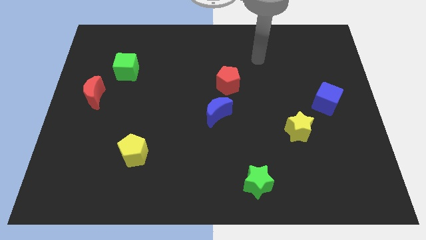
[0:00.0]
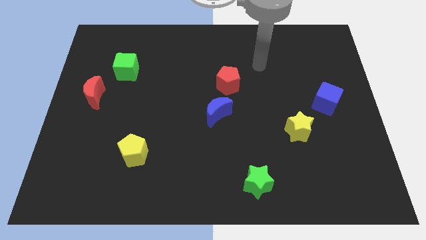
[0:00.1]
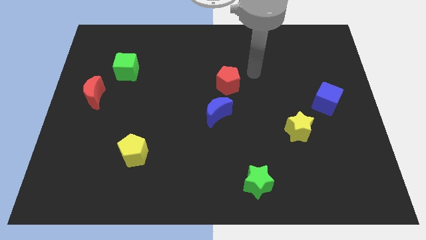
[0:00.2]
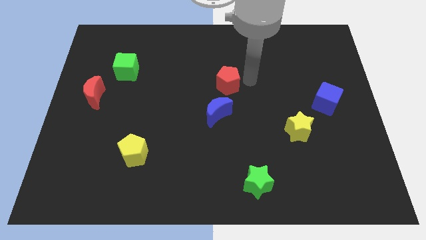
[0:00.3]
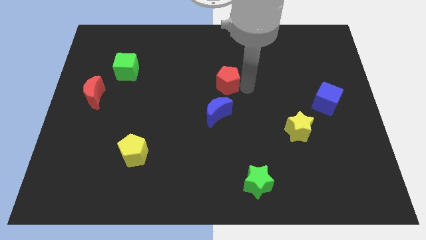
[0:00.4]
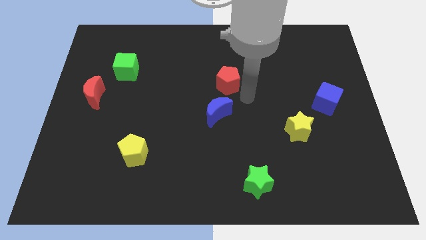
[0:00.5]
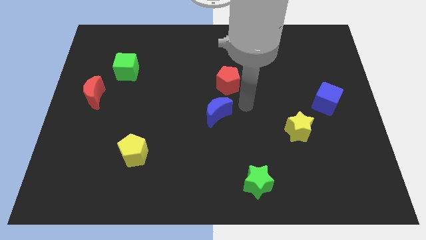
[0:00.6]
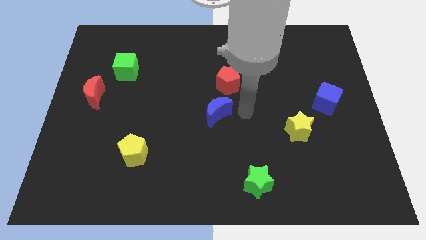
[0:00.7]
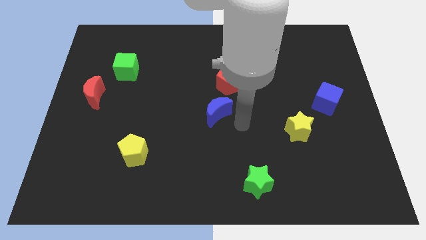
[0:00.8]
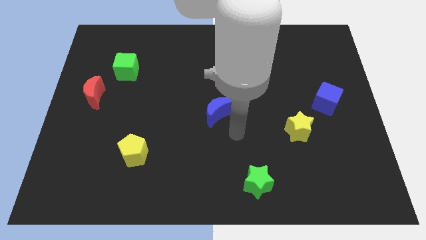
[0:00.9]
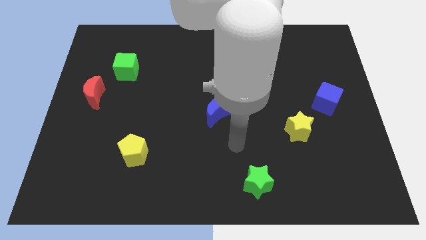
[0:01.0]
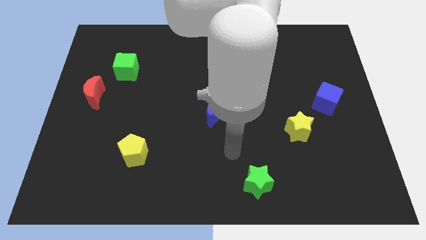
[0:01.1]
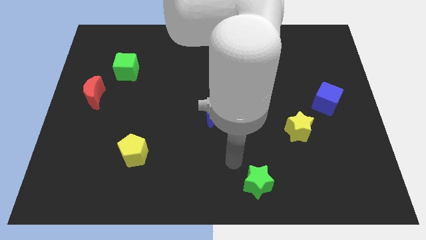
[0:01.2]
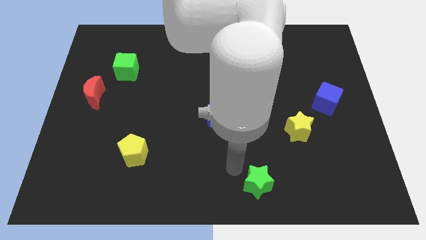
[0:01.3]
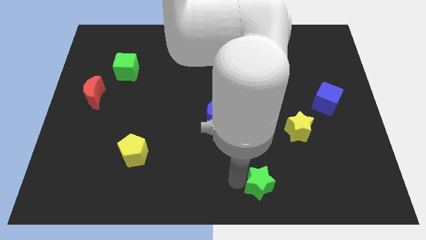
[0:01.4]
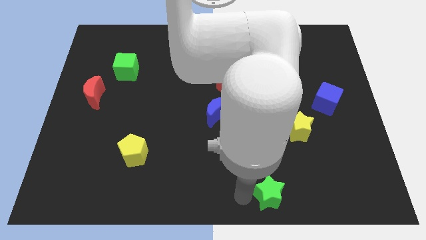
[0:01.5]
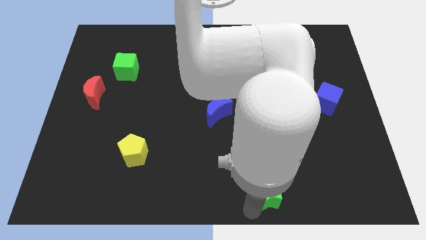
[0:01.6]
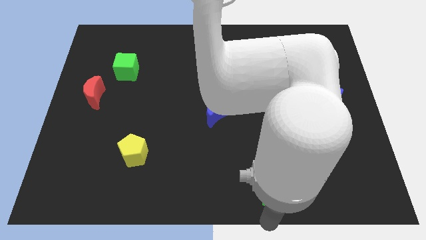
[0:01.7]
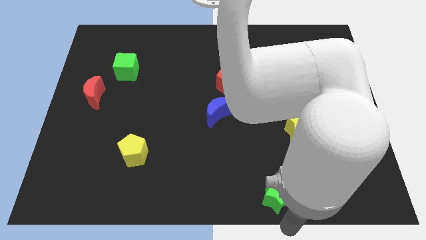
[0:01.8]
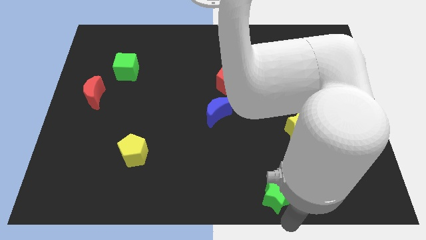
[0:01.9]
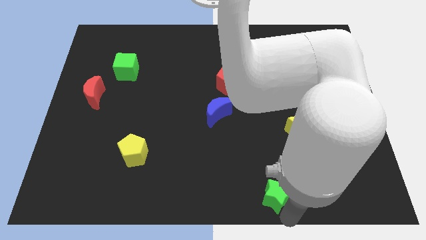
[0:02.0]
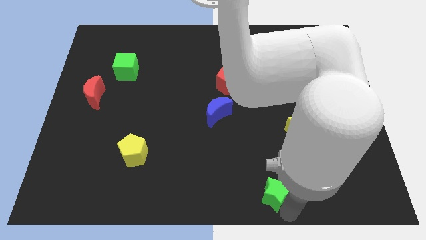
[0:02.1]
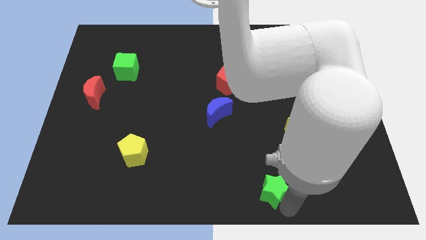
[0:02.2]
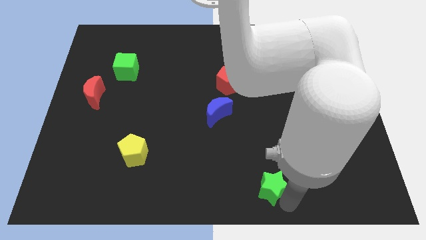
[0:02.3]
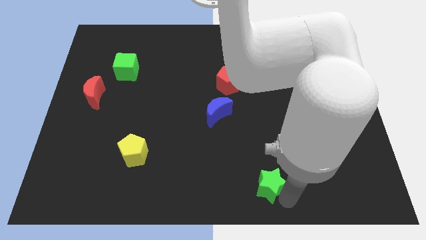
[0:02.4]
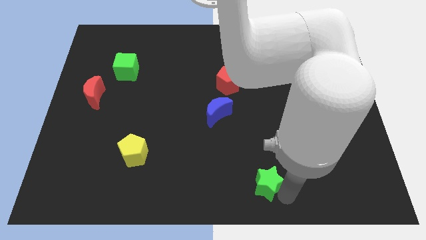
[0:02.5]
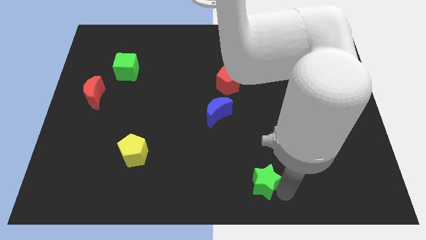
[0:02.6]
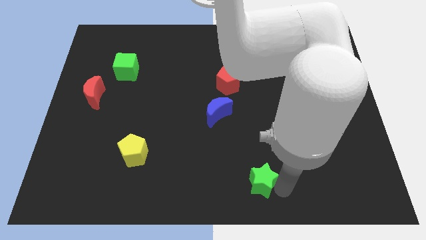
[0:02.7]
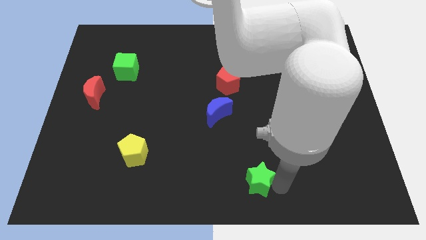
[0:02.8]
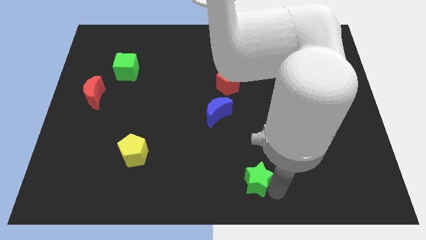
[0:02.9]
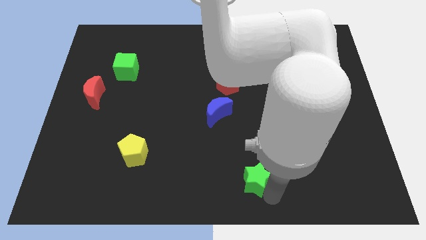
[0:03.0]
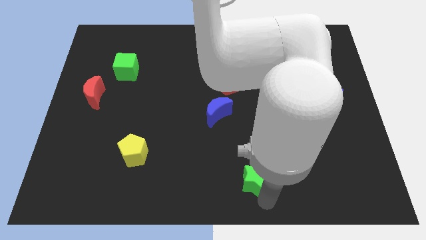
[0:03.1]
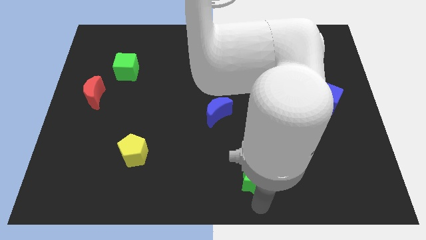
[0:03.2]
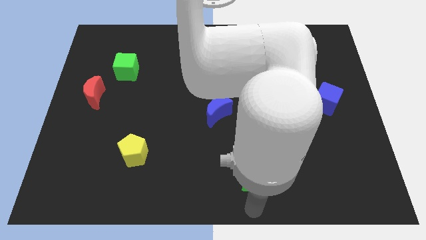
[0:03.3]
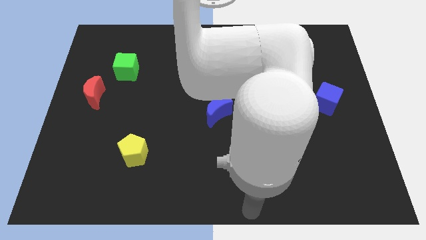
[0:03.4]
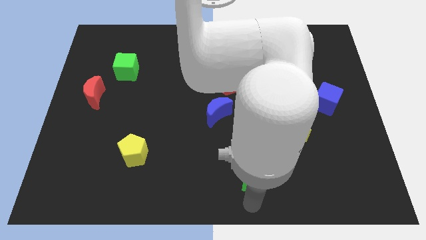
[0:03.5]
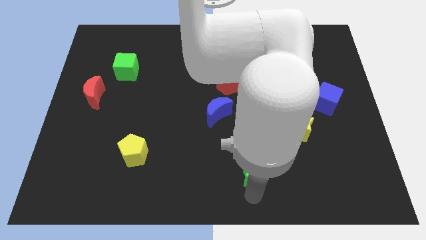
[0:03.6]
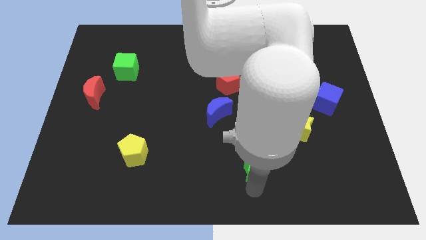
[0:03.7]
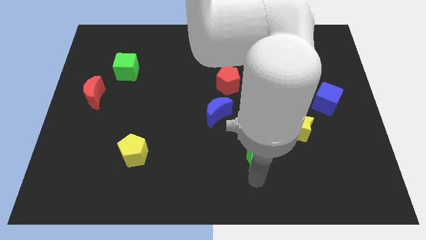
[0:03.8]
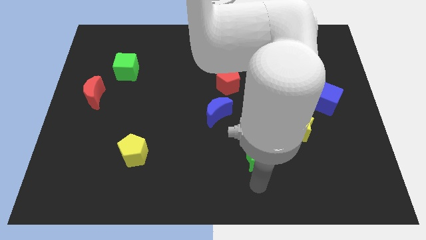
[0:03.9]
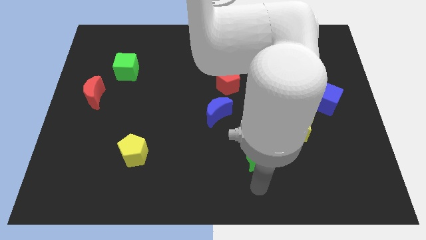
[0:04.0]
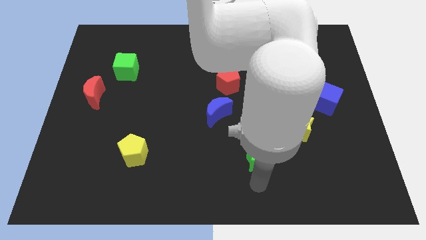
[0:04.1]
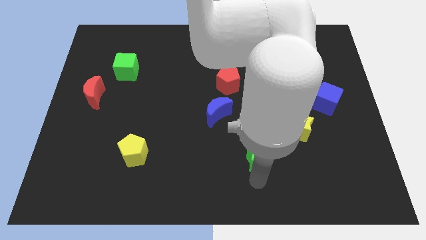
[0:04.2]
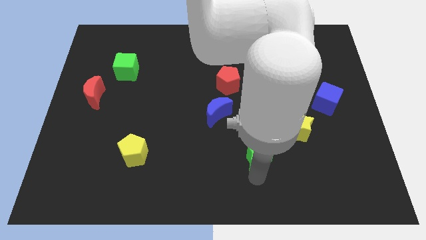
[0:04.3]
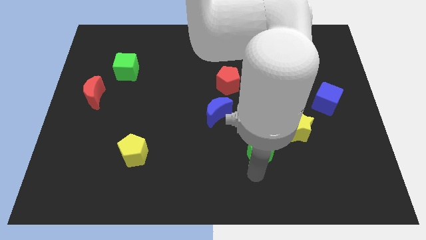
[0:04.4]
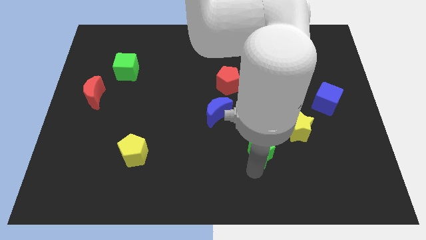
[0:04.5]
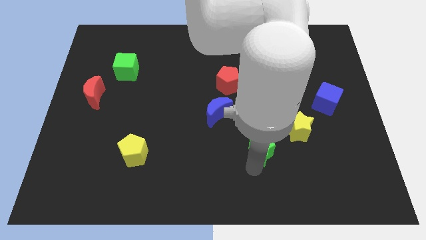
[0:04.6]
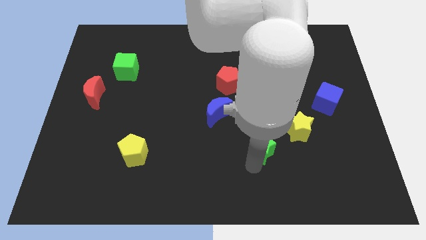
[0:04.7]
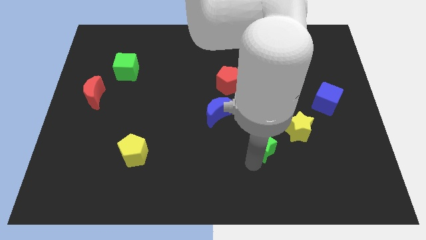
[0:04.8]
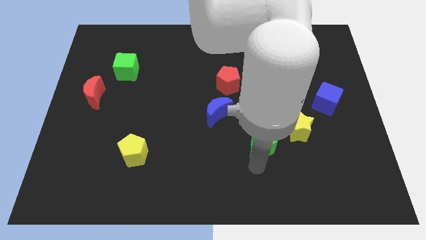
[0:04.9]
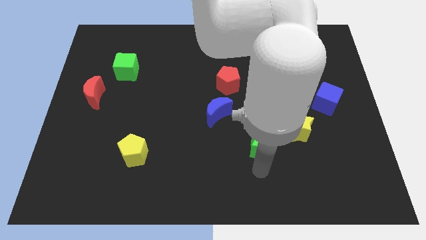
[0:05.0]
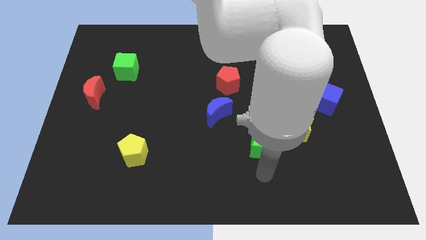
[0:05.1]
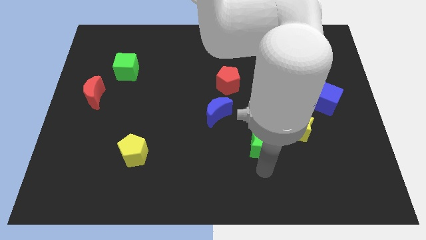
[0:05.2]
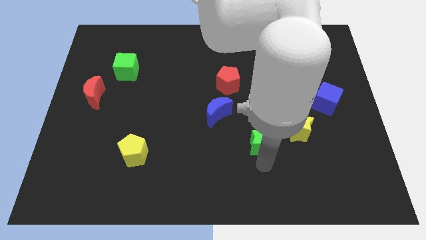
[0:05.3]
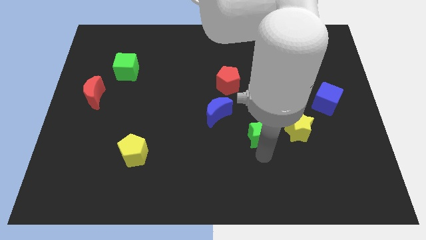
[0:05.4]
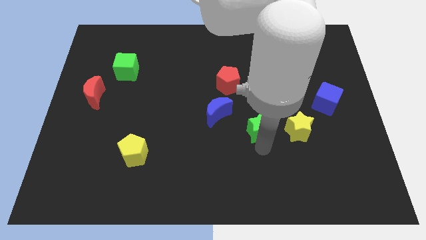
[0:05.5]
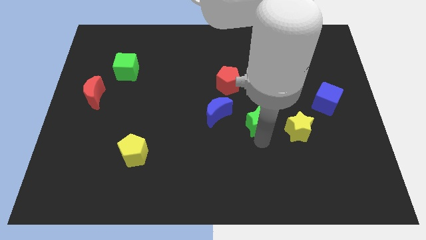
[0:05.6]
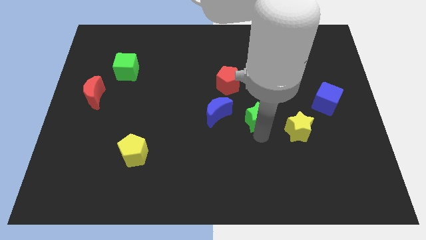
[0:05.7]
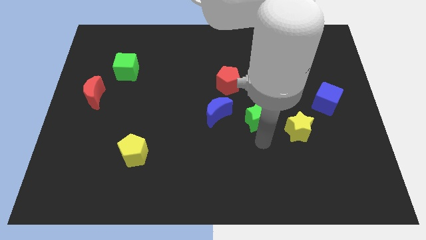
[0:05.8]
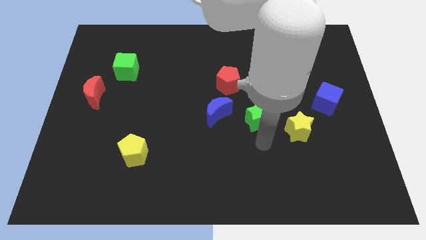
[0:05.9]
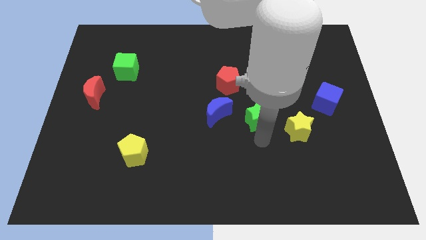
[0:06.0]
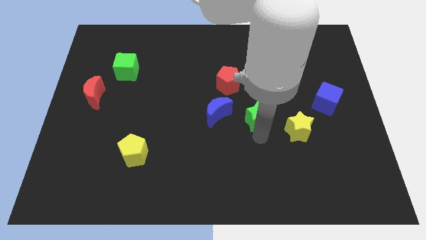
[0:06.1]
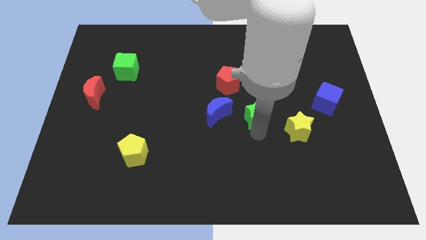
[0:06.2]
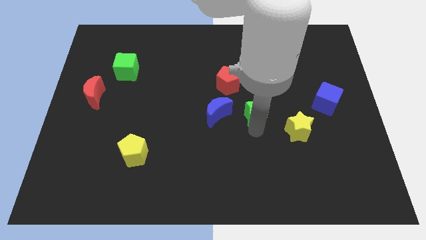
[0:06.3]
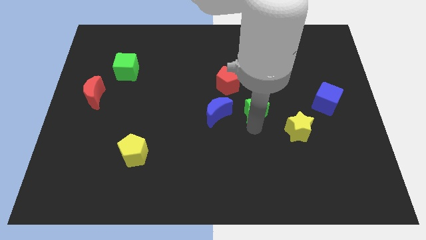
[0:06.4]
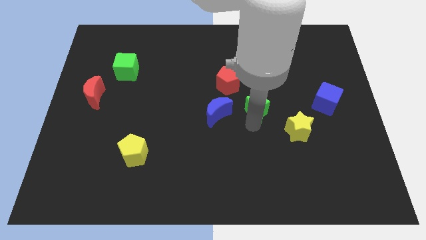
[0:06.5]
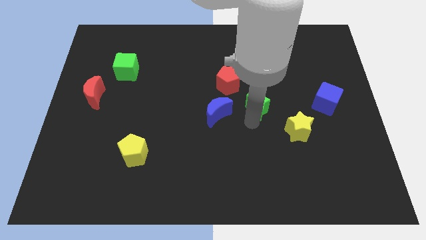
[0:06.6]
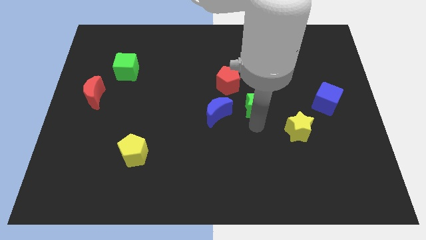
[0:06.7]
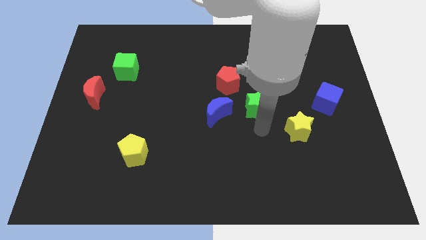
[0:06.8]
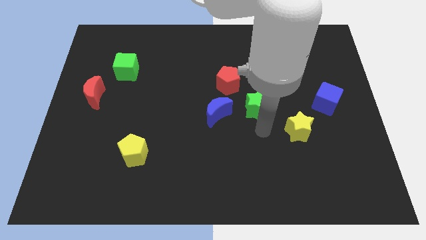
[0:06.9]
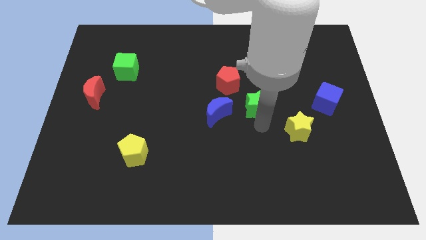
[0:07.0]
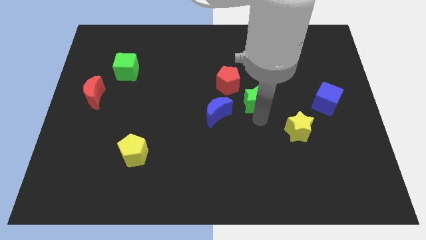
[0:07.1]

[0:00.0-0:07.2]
slide the green star upwards

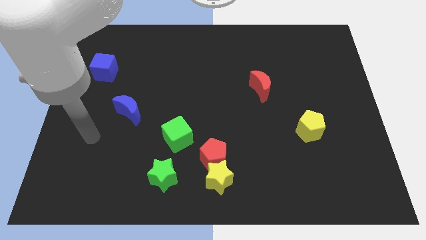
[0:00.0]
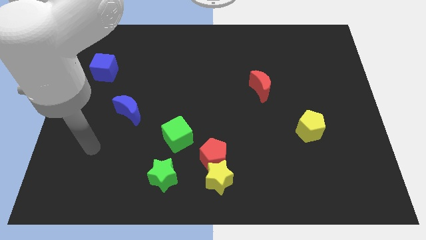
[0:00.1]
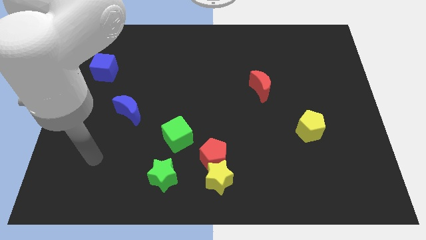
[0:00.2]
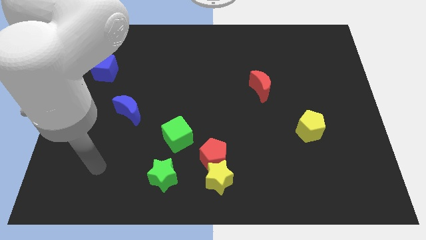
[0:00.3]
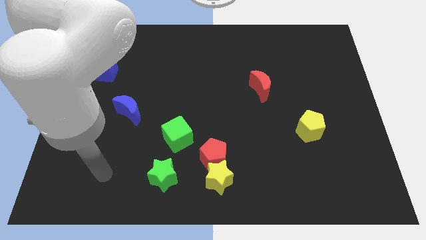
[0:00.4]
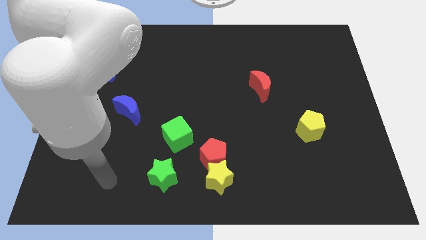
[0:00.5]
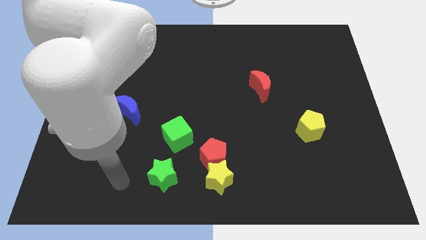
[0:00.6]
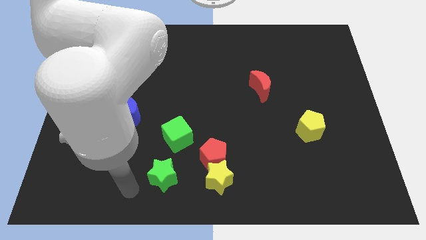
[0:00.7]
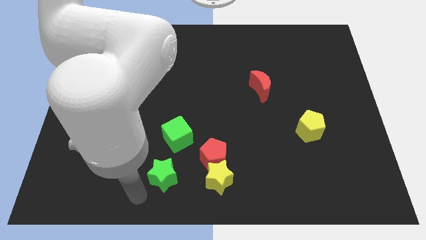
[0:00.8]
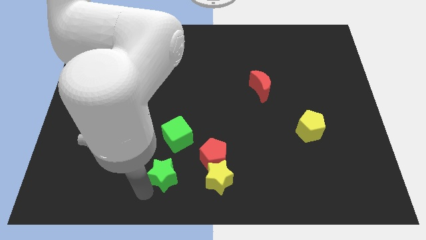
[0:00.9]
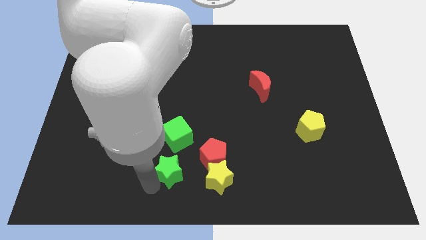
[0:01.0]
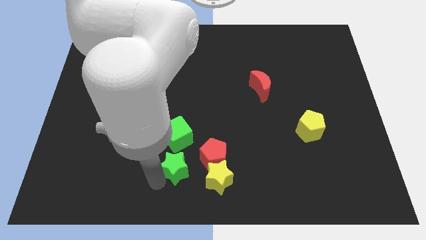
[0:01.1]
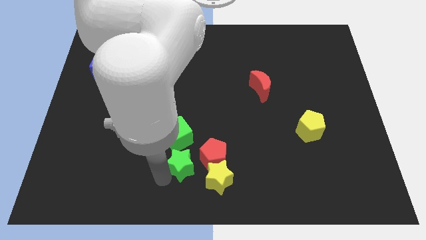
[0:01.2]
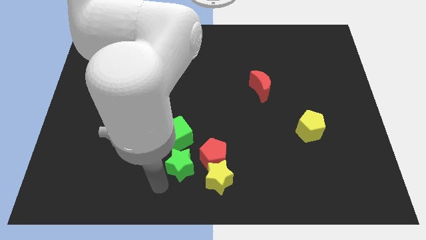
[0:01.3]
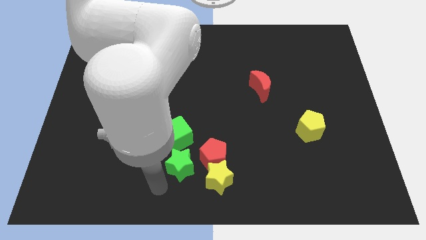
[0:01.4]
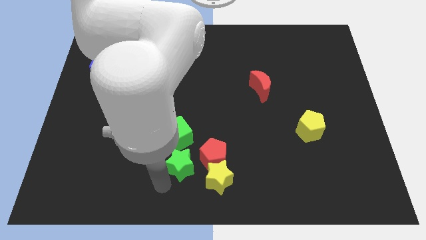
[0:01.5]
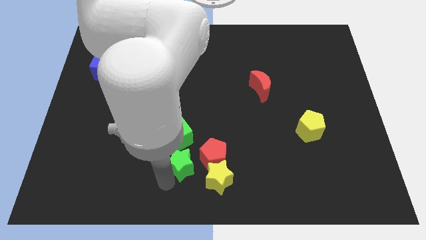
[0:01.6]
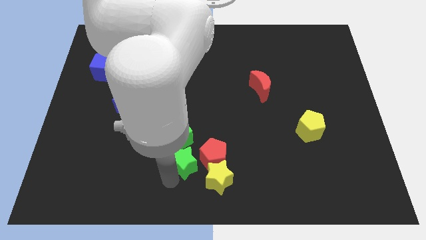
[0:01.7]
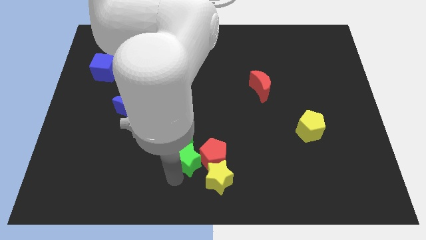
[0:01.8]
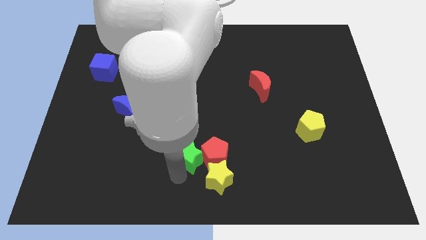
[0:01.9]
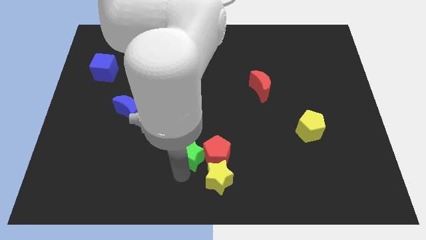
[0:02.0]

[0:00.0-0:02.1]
slightly push the green star upwards and right diagonally
